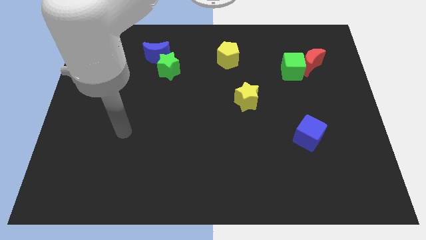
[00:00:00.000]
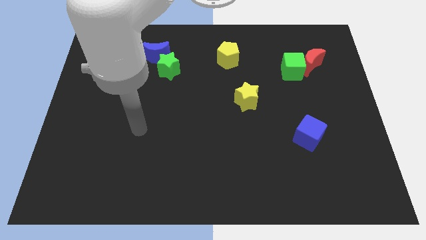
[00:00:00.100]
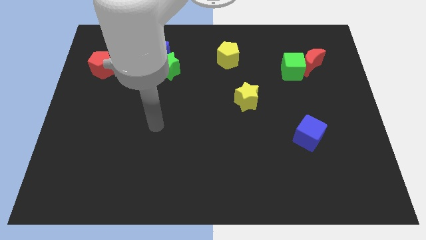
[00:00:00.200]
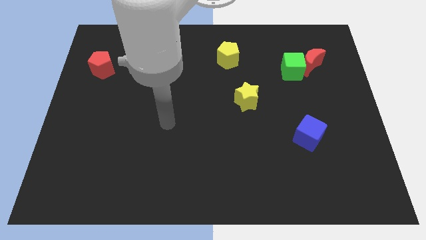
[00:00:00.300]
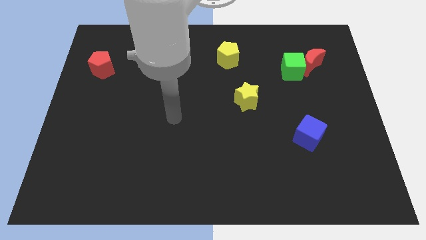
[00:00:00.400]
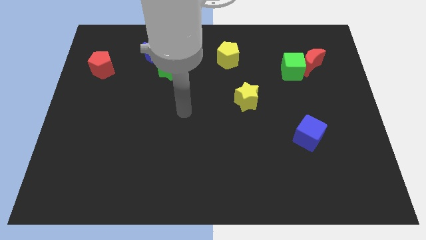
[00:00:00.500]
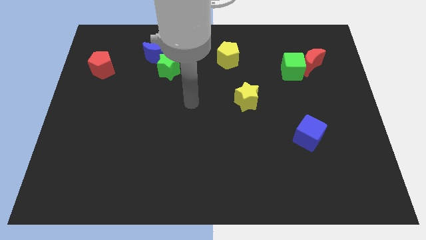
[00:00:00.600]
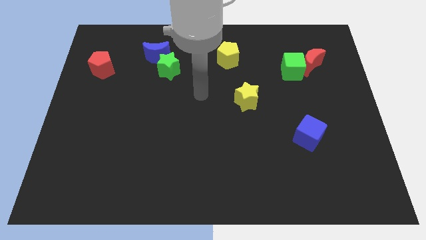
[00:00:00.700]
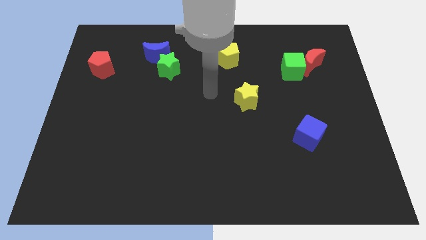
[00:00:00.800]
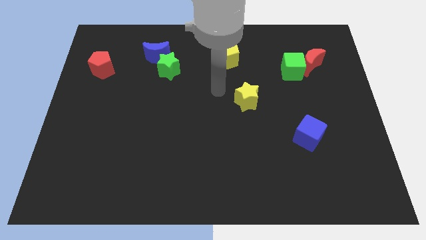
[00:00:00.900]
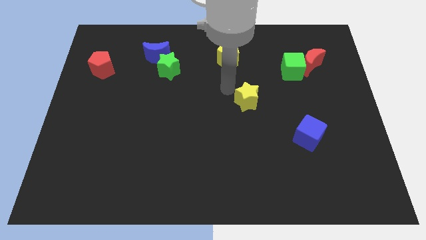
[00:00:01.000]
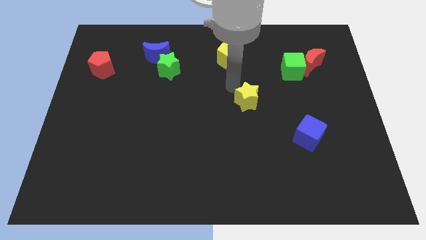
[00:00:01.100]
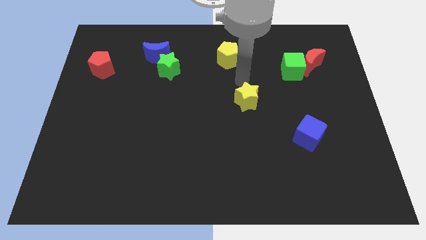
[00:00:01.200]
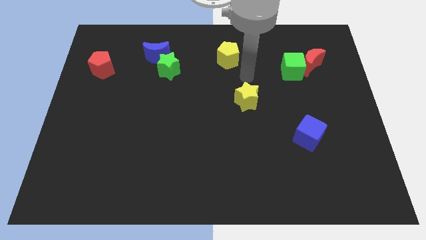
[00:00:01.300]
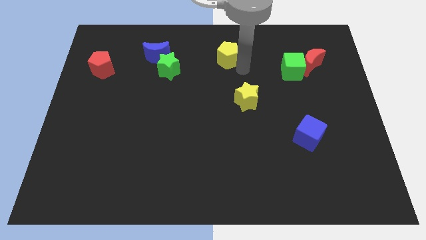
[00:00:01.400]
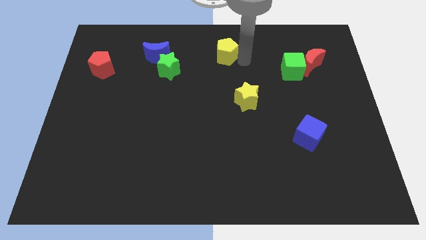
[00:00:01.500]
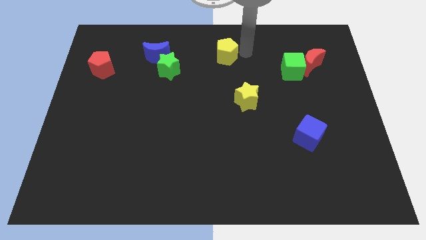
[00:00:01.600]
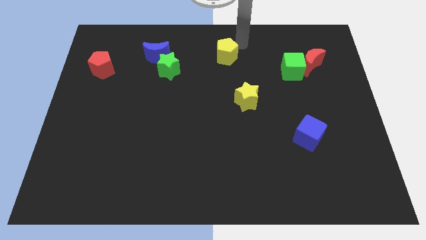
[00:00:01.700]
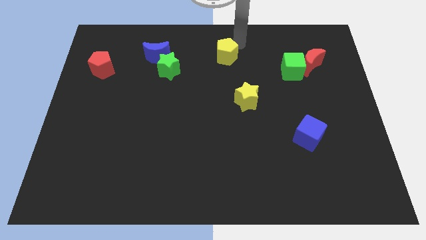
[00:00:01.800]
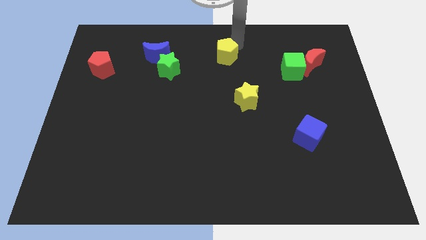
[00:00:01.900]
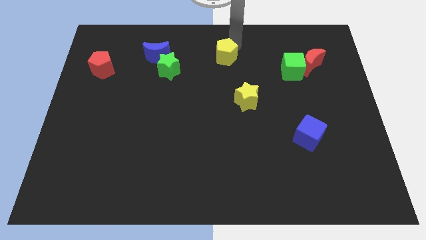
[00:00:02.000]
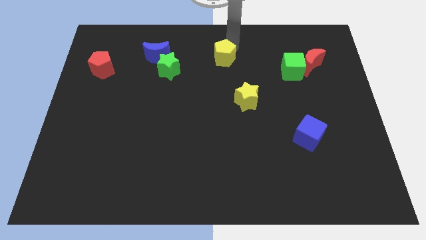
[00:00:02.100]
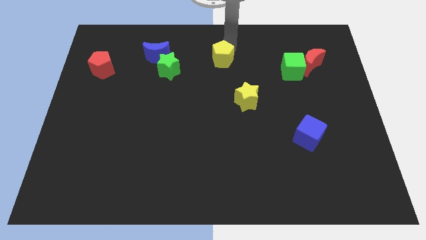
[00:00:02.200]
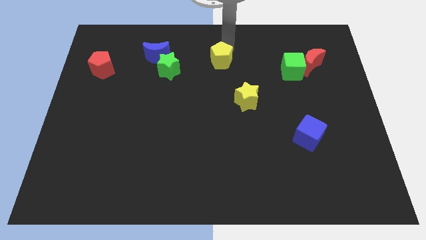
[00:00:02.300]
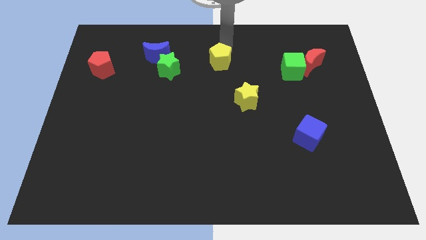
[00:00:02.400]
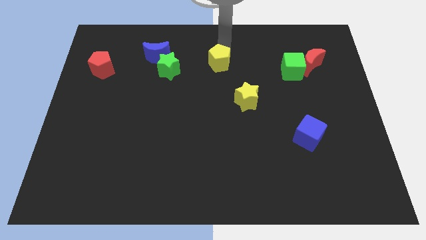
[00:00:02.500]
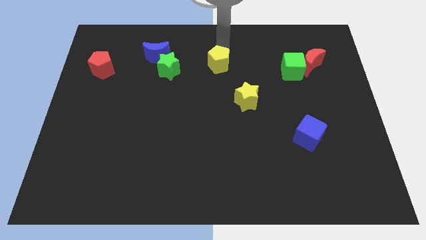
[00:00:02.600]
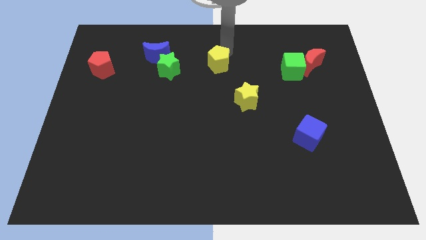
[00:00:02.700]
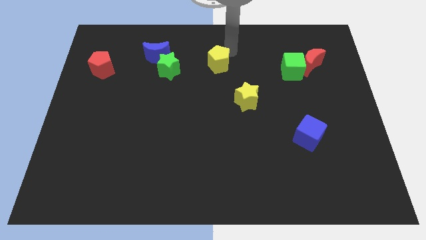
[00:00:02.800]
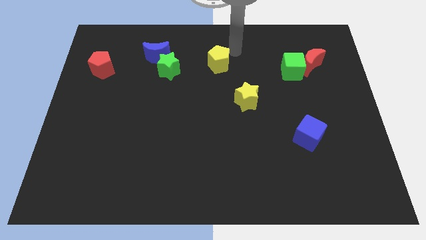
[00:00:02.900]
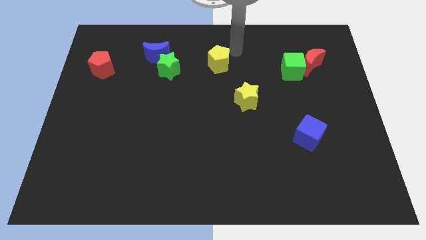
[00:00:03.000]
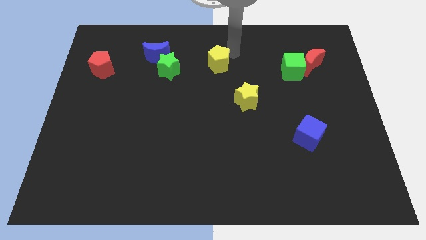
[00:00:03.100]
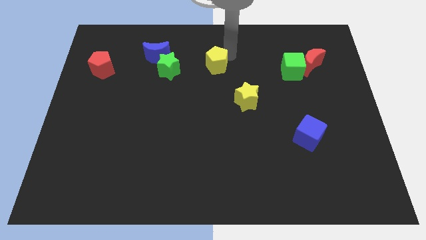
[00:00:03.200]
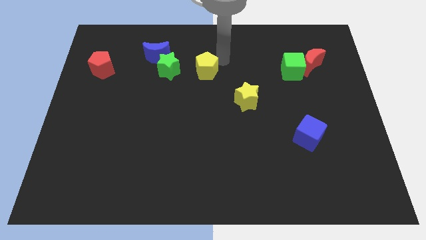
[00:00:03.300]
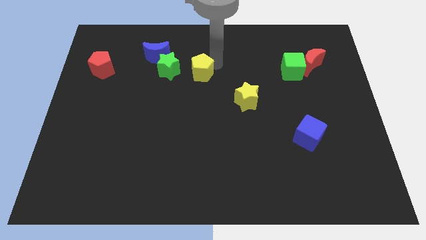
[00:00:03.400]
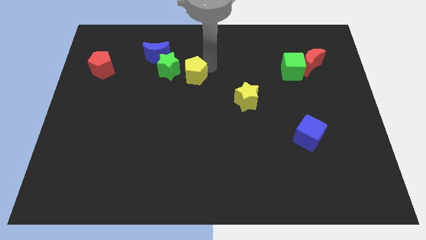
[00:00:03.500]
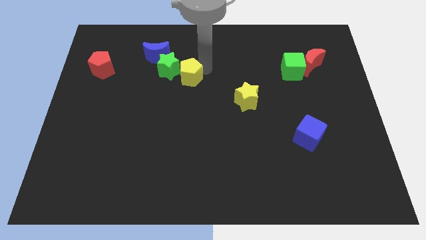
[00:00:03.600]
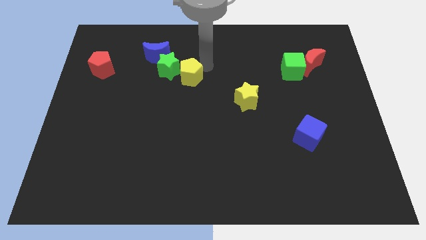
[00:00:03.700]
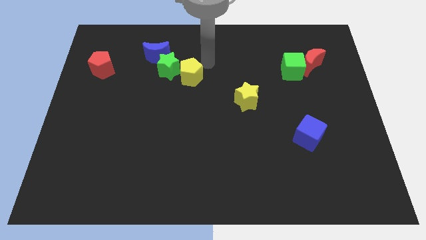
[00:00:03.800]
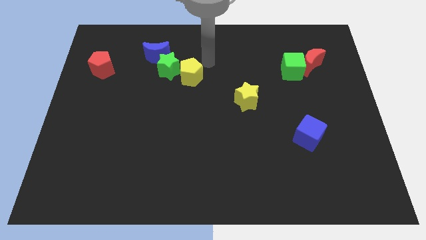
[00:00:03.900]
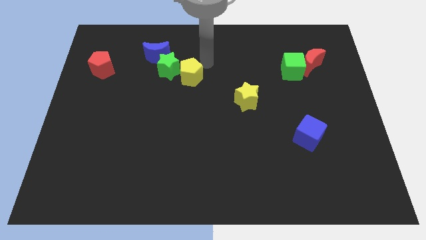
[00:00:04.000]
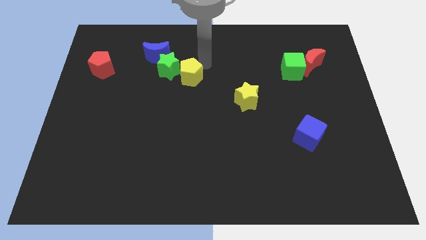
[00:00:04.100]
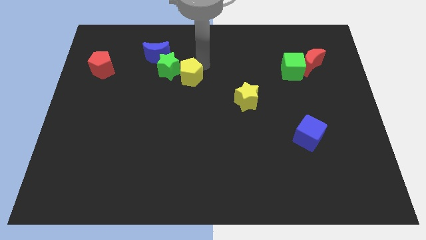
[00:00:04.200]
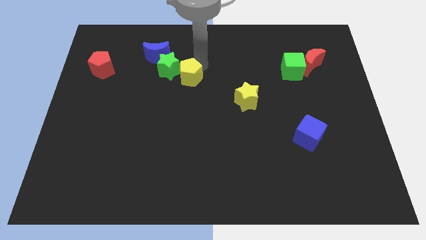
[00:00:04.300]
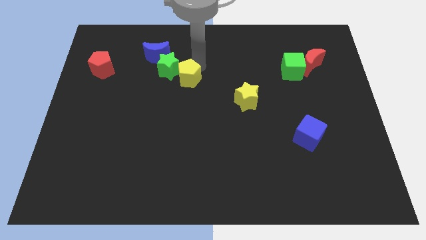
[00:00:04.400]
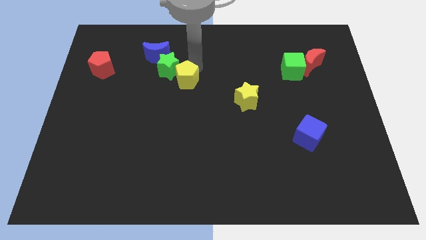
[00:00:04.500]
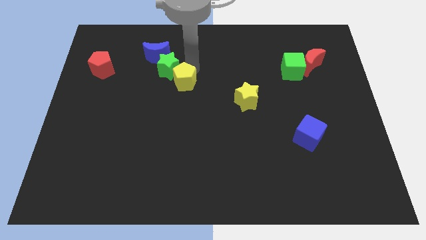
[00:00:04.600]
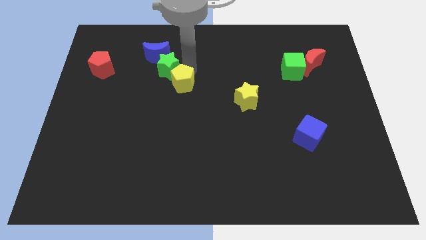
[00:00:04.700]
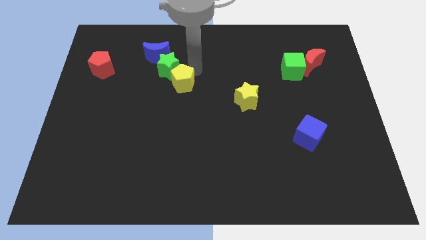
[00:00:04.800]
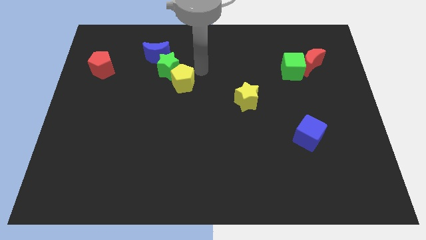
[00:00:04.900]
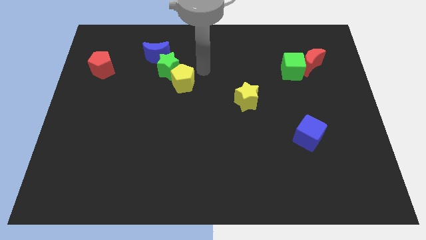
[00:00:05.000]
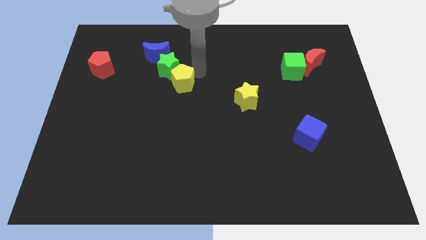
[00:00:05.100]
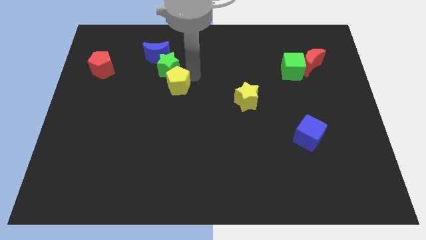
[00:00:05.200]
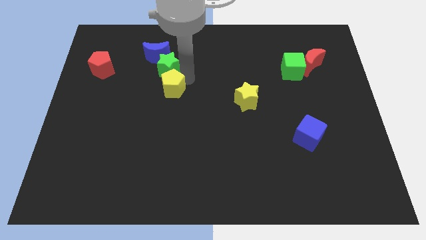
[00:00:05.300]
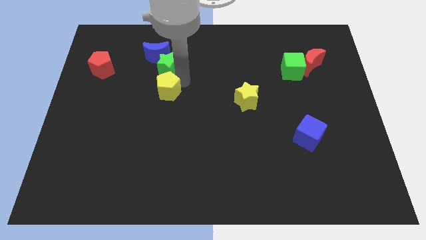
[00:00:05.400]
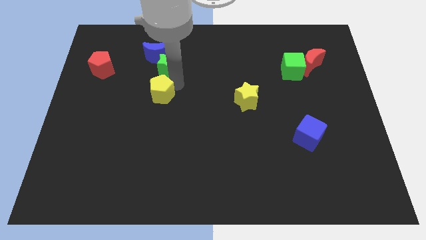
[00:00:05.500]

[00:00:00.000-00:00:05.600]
move the yellow pentagon diagonally downwards and left

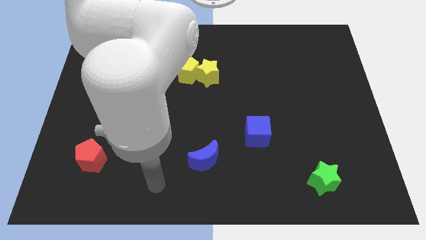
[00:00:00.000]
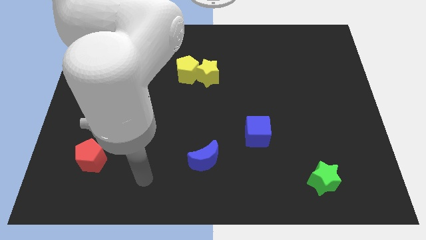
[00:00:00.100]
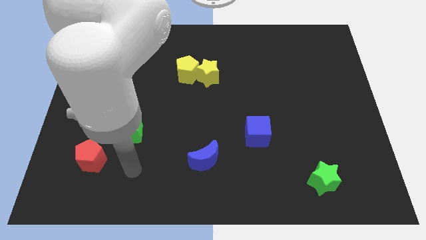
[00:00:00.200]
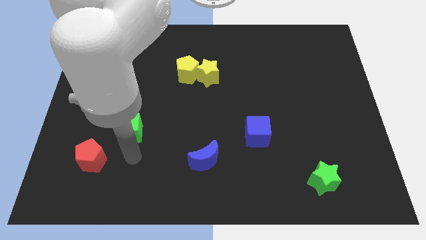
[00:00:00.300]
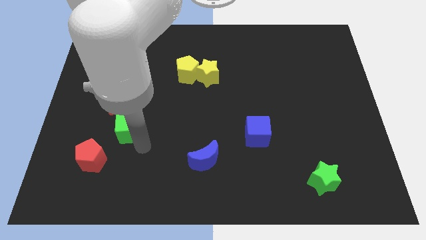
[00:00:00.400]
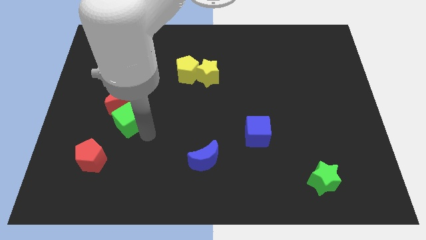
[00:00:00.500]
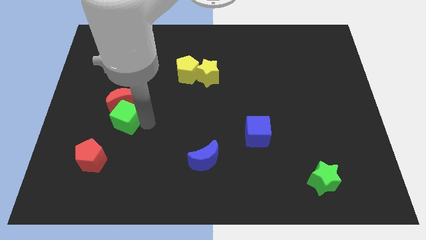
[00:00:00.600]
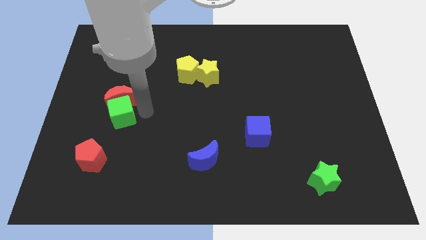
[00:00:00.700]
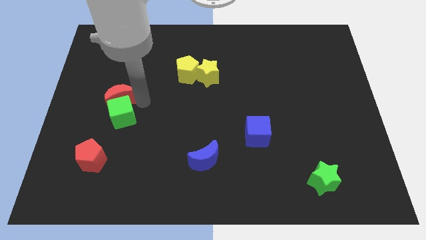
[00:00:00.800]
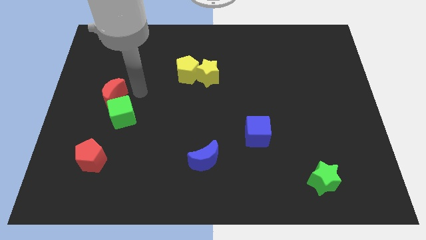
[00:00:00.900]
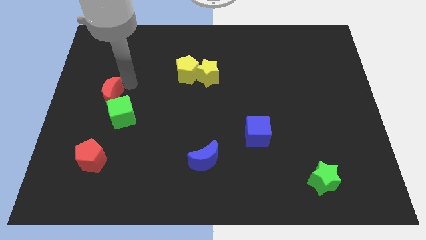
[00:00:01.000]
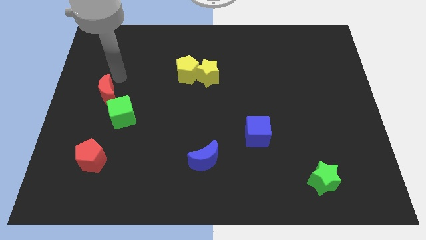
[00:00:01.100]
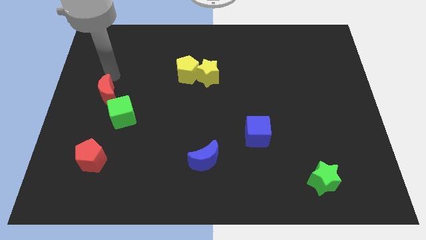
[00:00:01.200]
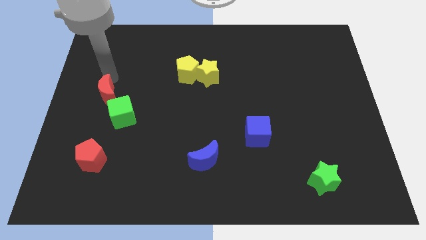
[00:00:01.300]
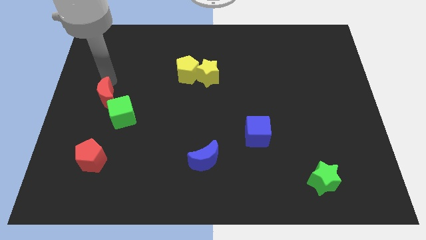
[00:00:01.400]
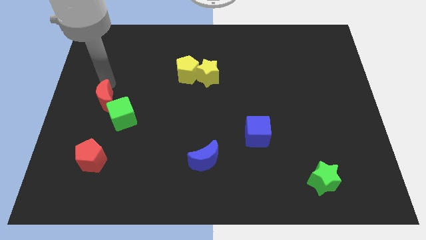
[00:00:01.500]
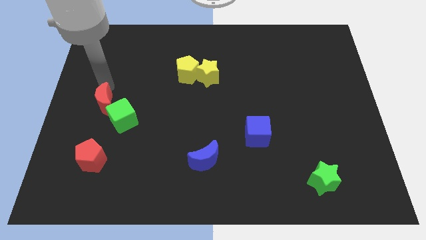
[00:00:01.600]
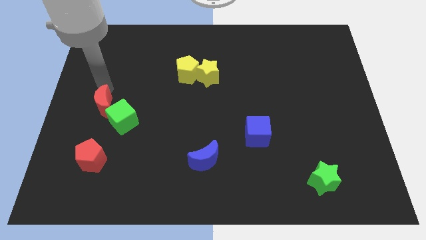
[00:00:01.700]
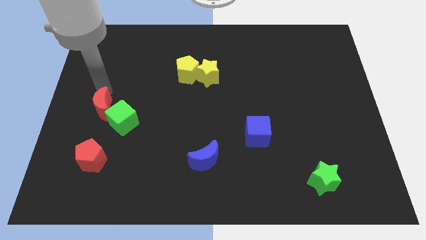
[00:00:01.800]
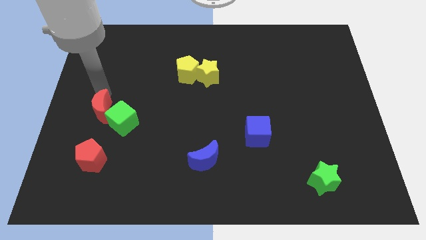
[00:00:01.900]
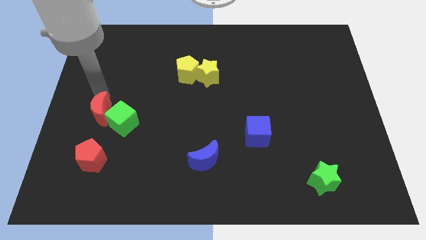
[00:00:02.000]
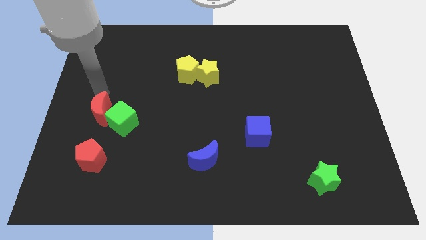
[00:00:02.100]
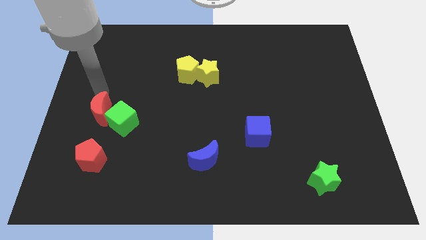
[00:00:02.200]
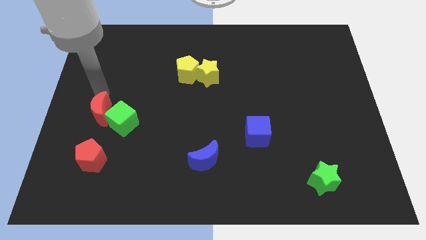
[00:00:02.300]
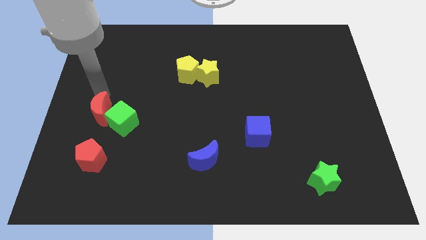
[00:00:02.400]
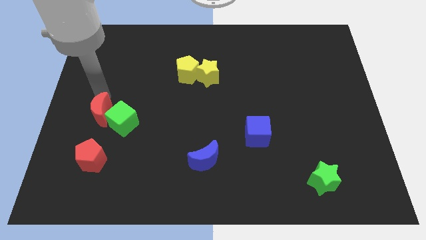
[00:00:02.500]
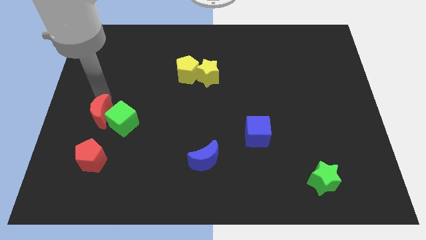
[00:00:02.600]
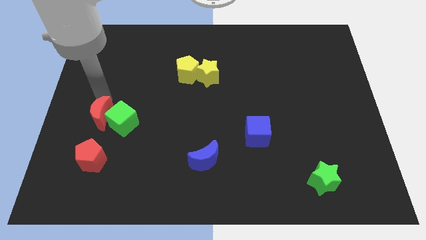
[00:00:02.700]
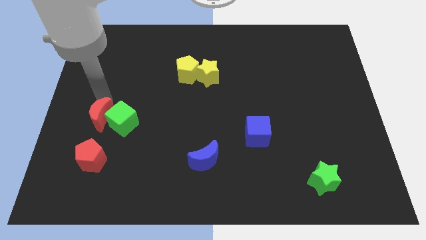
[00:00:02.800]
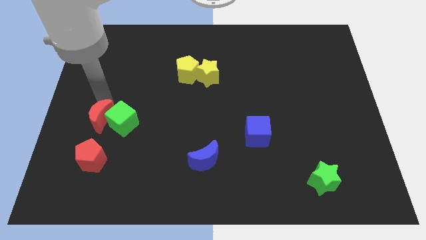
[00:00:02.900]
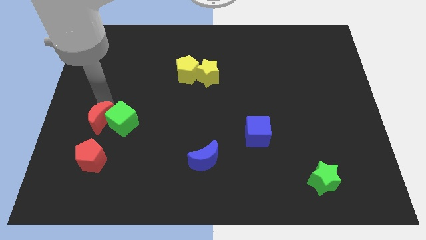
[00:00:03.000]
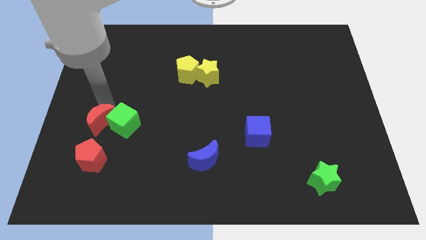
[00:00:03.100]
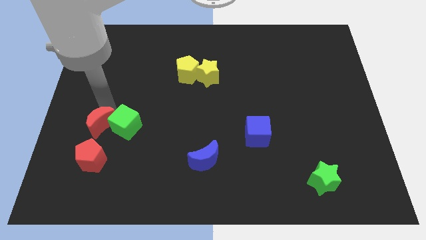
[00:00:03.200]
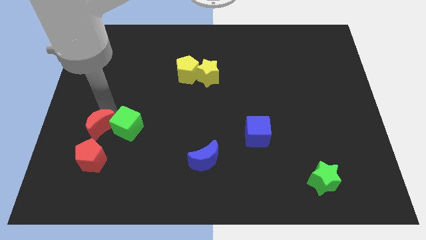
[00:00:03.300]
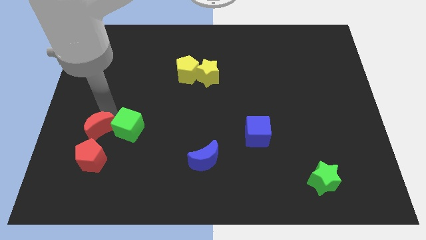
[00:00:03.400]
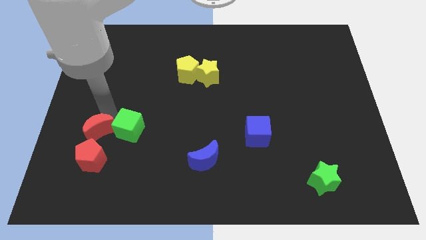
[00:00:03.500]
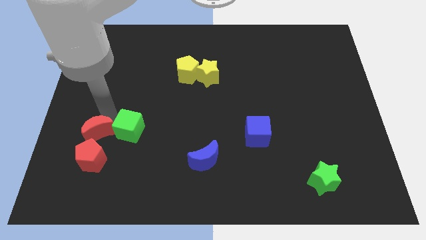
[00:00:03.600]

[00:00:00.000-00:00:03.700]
push the red moon downwards a little bit
